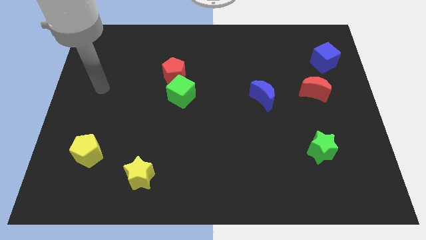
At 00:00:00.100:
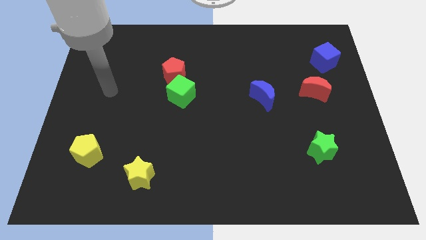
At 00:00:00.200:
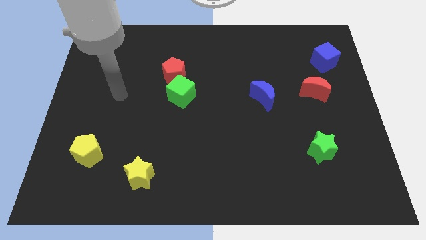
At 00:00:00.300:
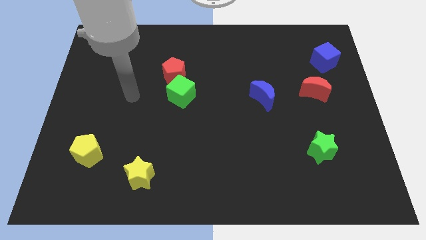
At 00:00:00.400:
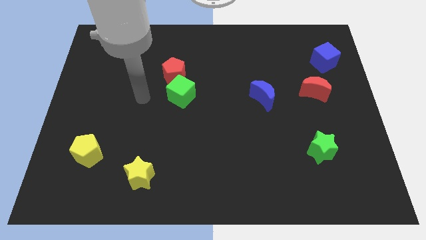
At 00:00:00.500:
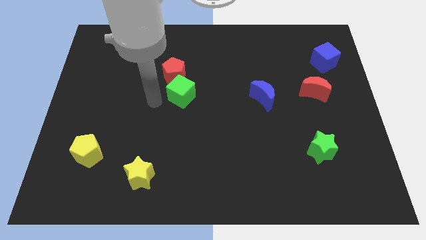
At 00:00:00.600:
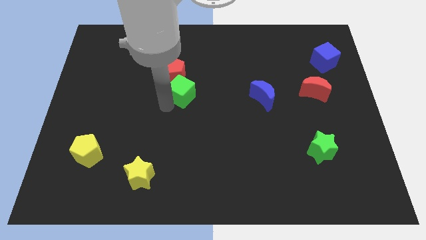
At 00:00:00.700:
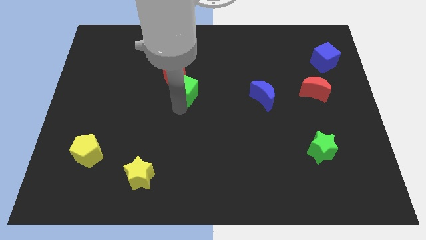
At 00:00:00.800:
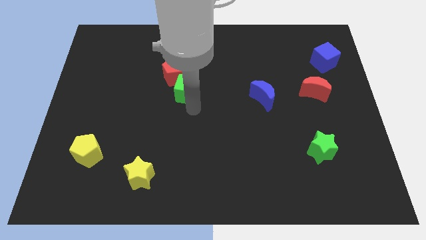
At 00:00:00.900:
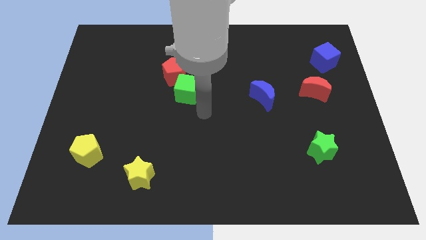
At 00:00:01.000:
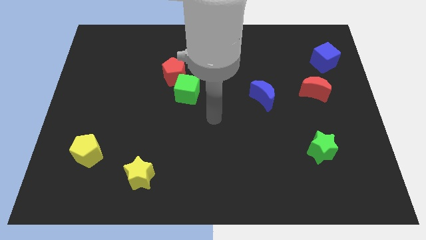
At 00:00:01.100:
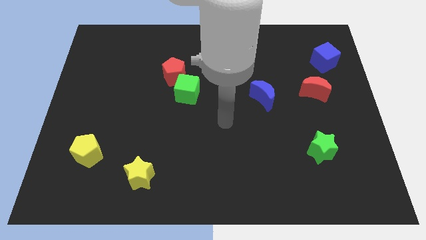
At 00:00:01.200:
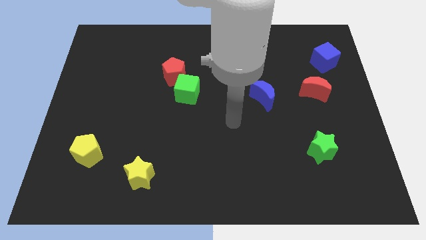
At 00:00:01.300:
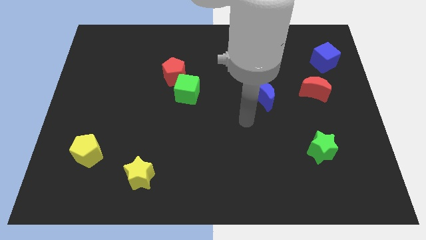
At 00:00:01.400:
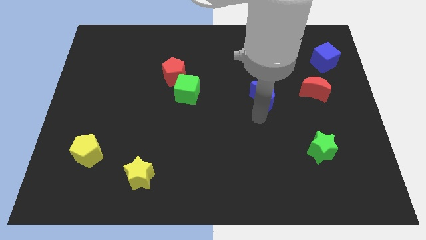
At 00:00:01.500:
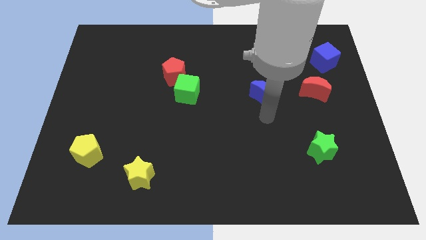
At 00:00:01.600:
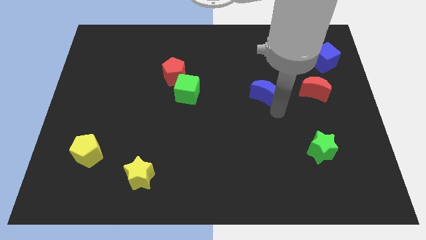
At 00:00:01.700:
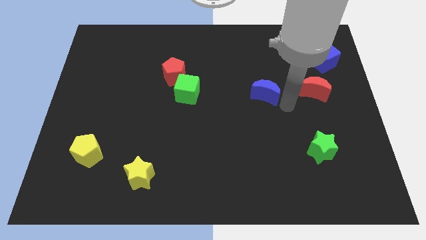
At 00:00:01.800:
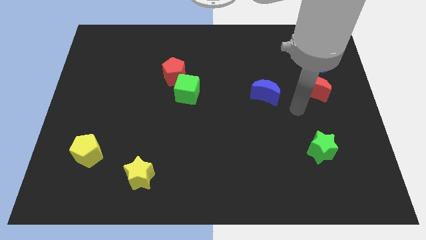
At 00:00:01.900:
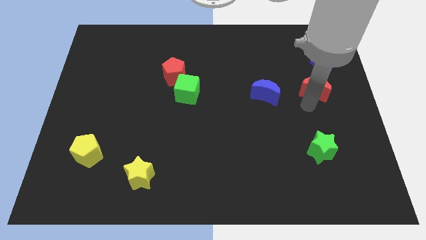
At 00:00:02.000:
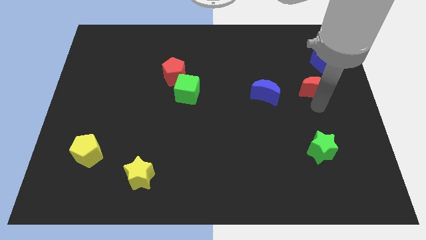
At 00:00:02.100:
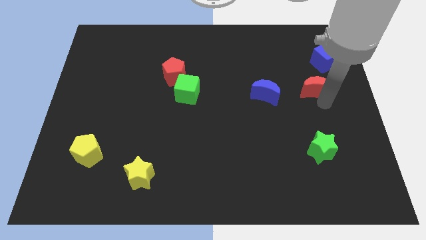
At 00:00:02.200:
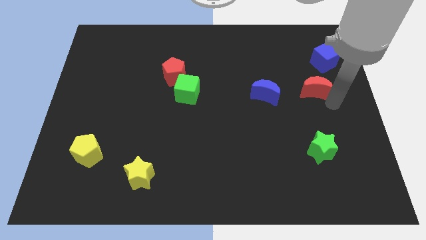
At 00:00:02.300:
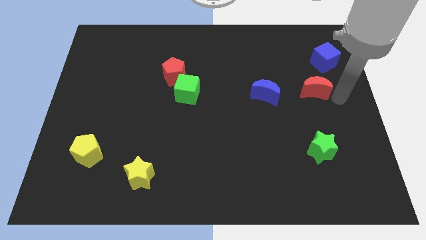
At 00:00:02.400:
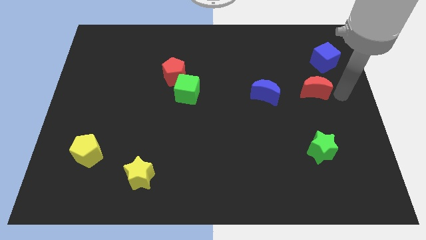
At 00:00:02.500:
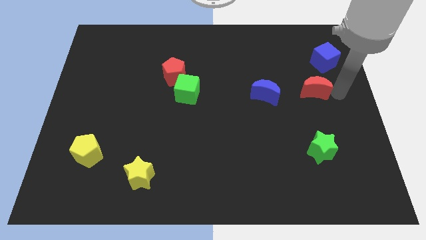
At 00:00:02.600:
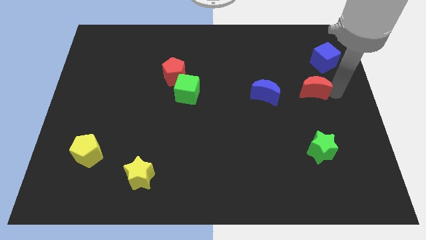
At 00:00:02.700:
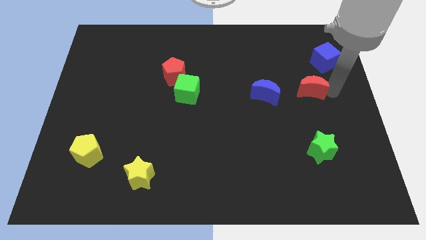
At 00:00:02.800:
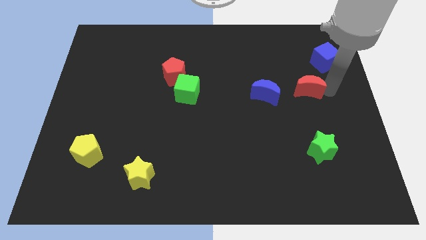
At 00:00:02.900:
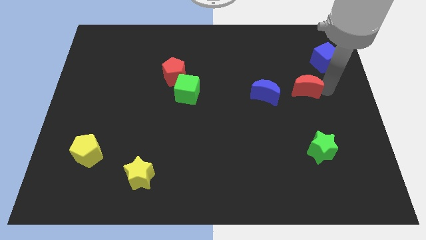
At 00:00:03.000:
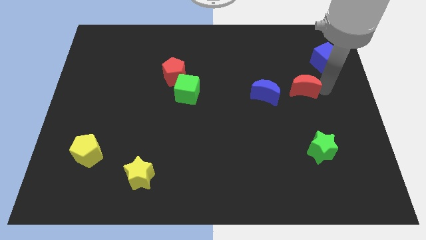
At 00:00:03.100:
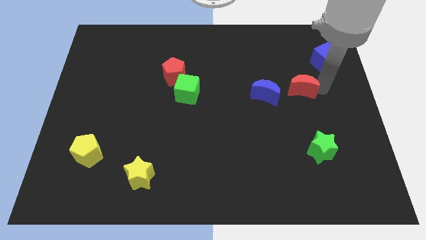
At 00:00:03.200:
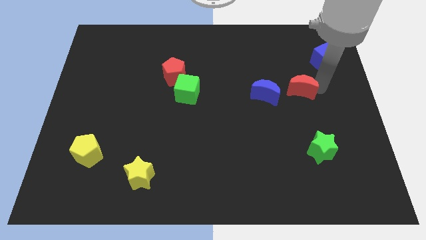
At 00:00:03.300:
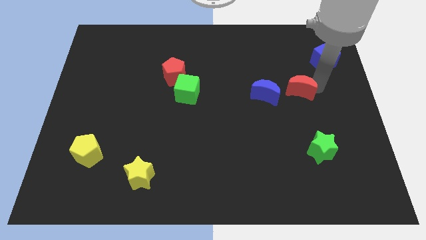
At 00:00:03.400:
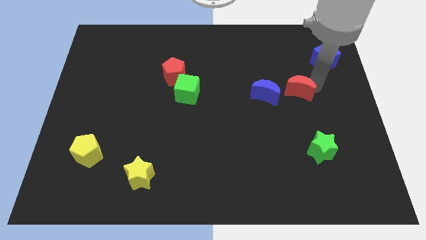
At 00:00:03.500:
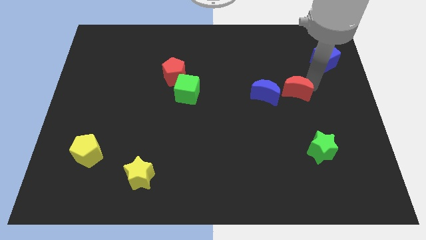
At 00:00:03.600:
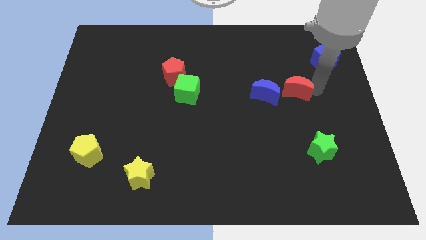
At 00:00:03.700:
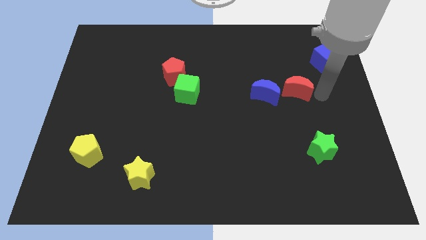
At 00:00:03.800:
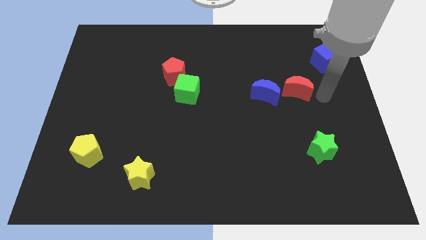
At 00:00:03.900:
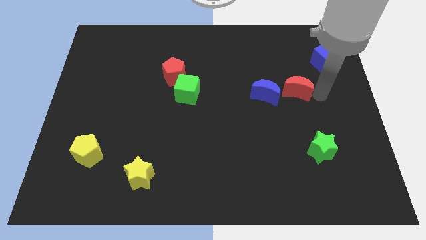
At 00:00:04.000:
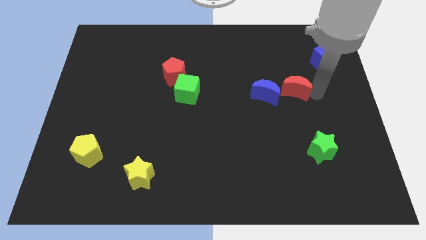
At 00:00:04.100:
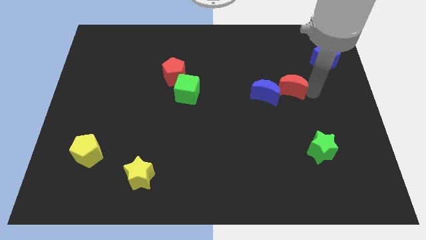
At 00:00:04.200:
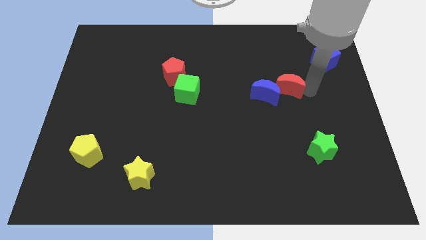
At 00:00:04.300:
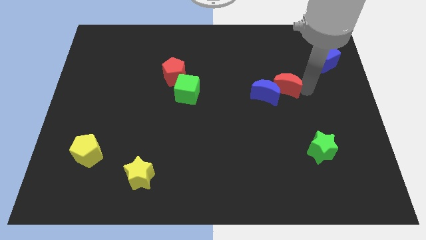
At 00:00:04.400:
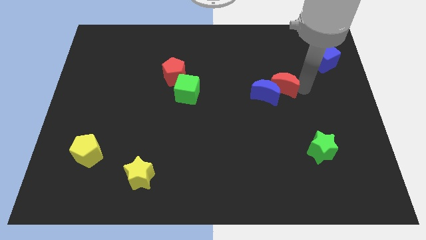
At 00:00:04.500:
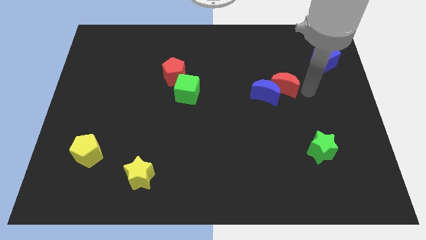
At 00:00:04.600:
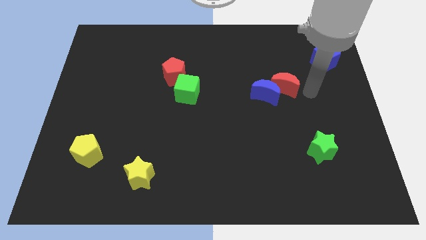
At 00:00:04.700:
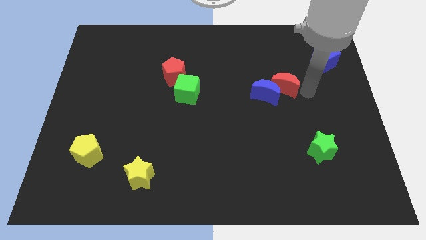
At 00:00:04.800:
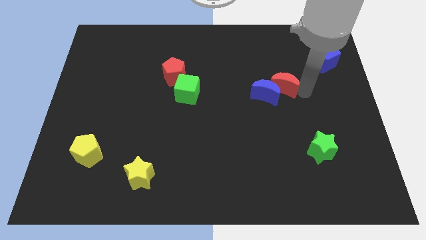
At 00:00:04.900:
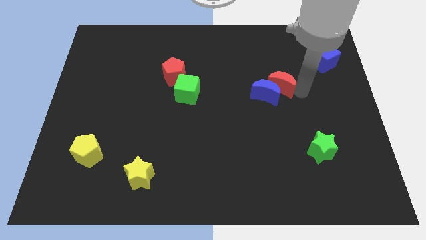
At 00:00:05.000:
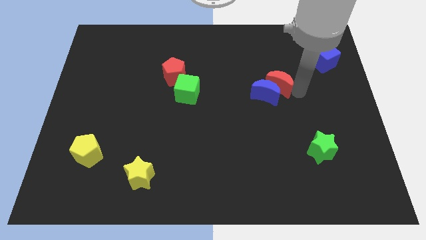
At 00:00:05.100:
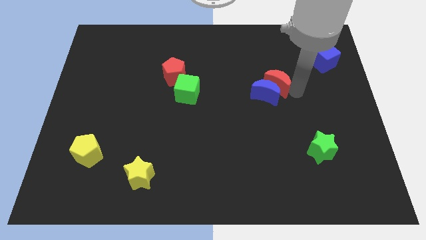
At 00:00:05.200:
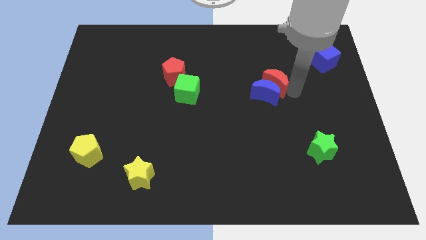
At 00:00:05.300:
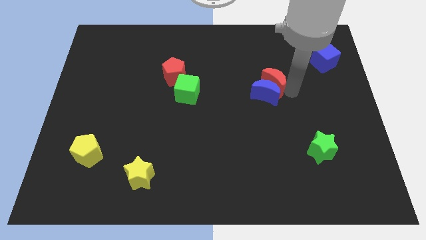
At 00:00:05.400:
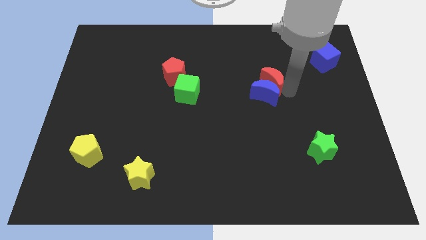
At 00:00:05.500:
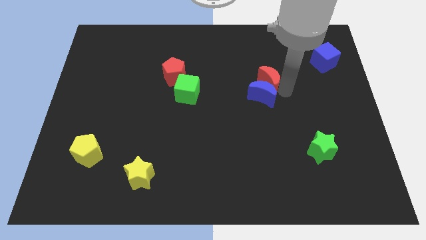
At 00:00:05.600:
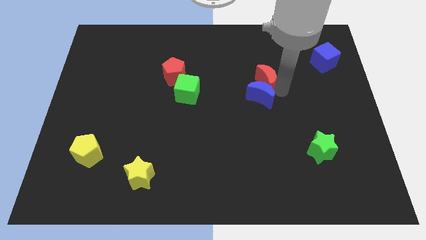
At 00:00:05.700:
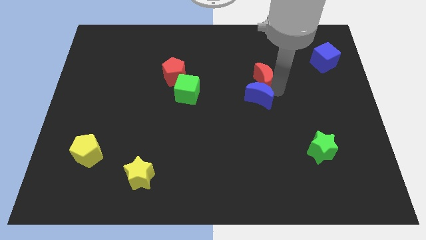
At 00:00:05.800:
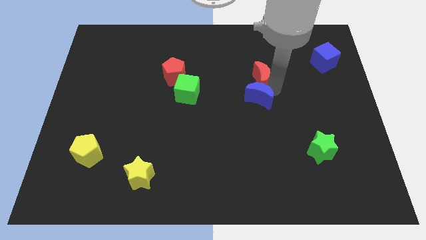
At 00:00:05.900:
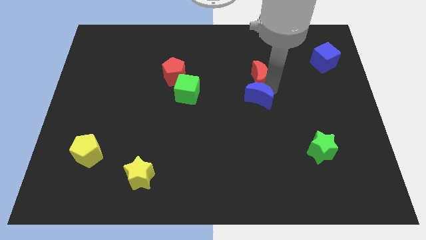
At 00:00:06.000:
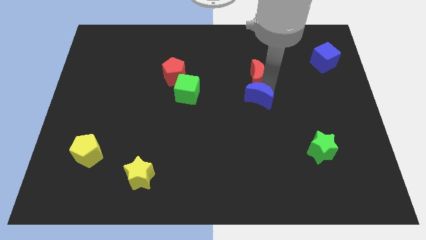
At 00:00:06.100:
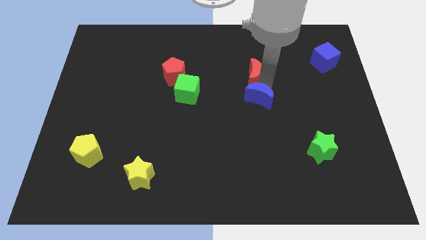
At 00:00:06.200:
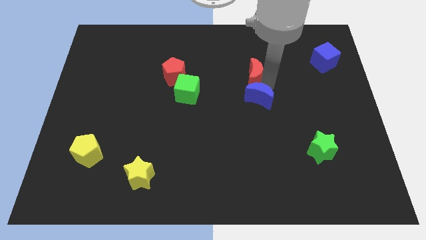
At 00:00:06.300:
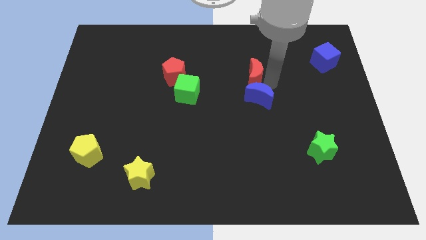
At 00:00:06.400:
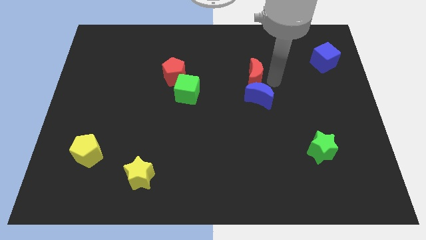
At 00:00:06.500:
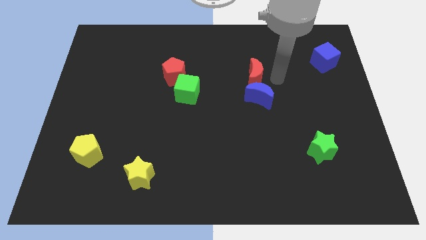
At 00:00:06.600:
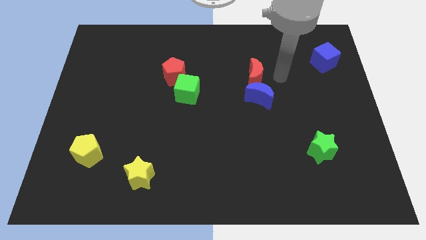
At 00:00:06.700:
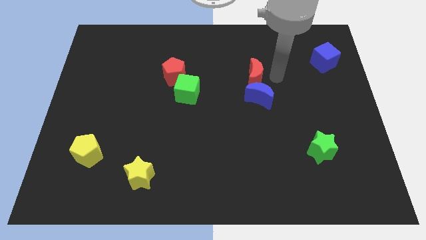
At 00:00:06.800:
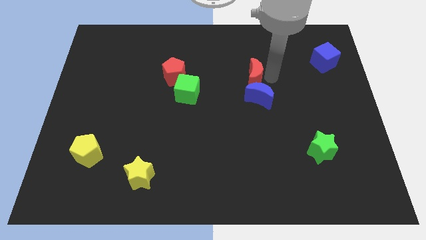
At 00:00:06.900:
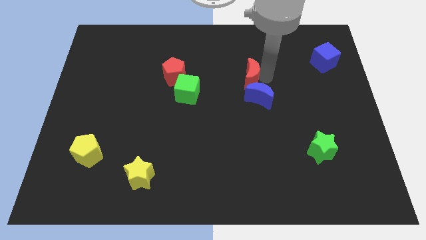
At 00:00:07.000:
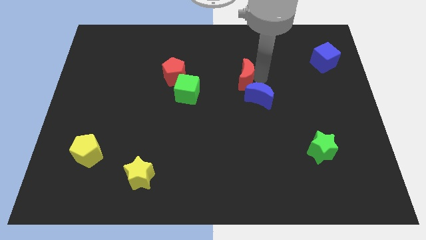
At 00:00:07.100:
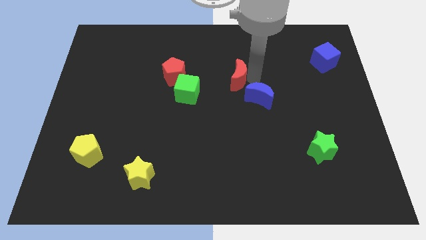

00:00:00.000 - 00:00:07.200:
push the red moon to the right of the red pentagon
